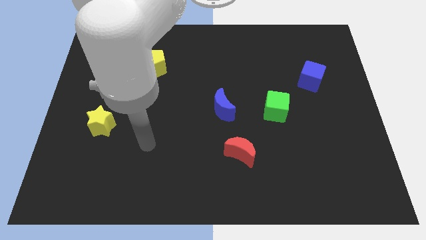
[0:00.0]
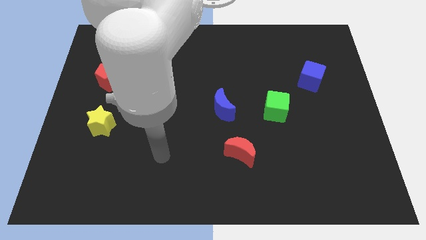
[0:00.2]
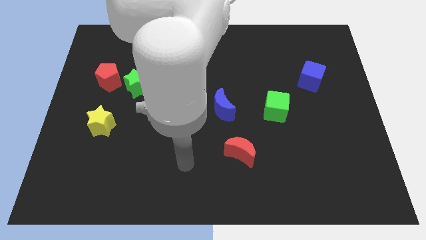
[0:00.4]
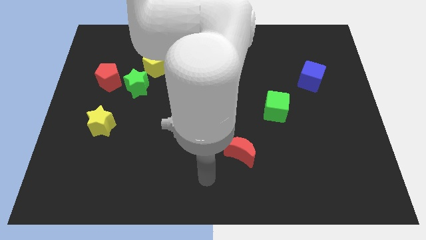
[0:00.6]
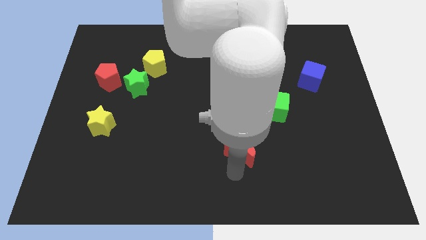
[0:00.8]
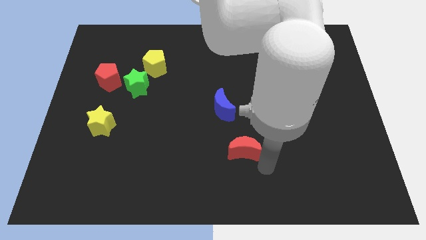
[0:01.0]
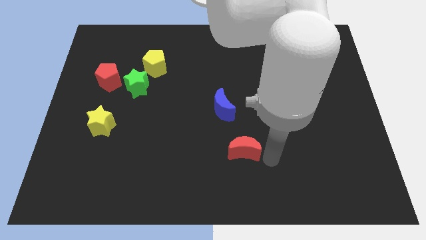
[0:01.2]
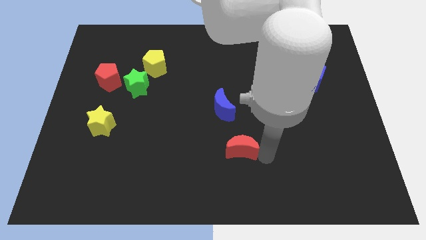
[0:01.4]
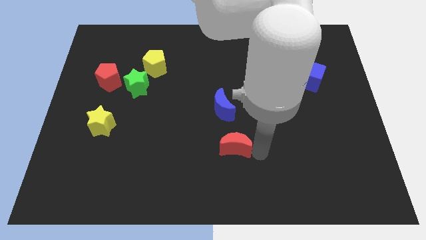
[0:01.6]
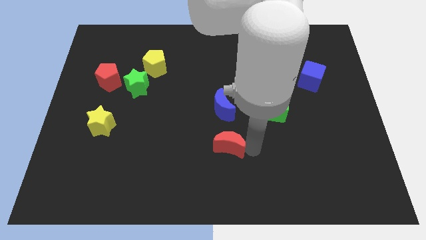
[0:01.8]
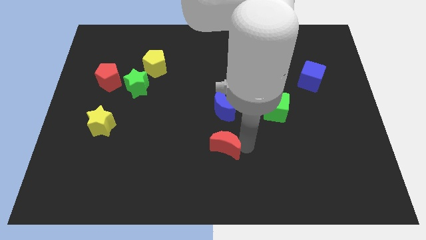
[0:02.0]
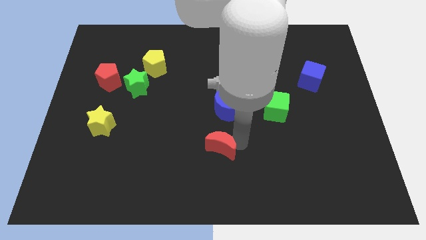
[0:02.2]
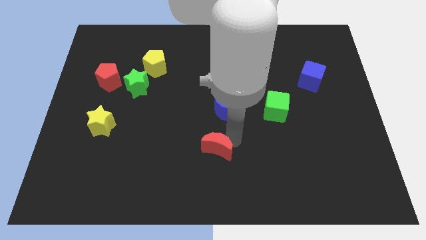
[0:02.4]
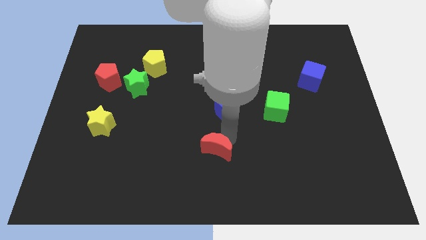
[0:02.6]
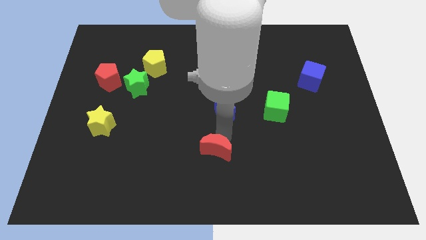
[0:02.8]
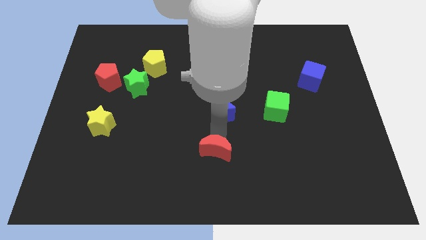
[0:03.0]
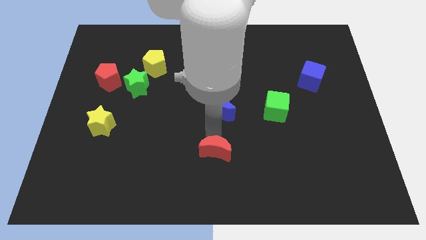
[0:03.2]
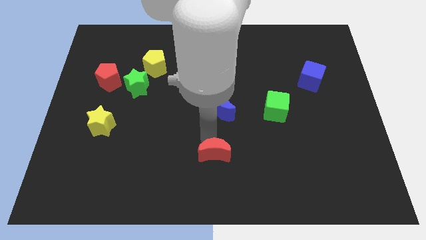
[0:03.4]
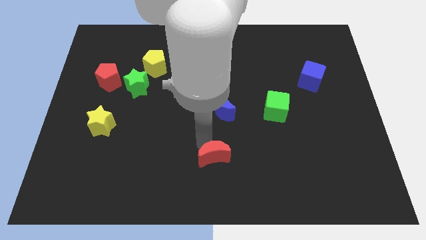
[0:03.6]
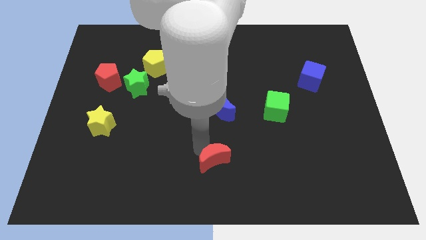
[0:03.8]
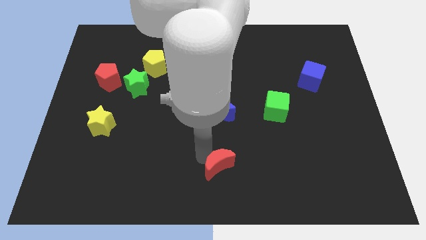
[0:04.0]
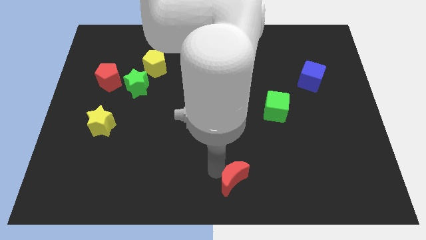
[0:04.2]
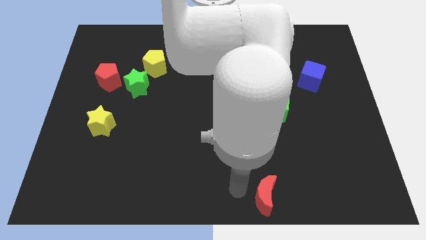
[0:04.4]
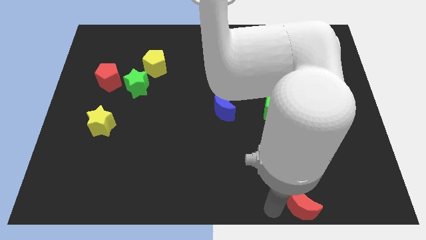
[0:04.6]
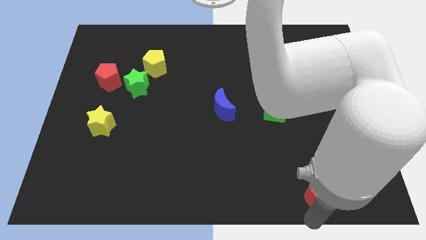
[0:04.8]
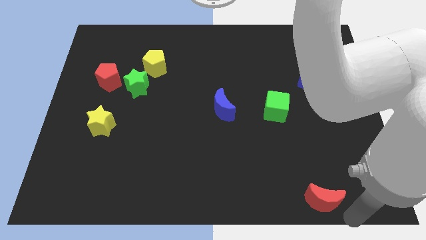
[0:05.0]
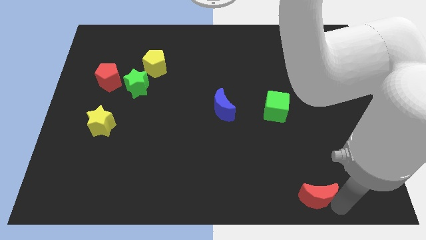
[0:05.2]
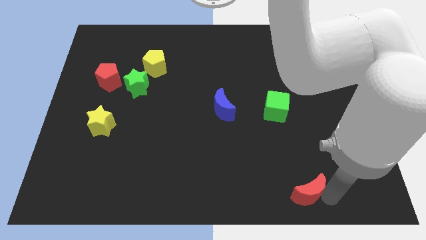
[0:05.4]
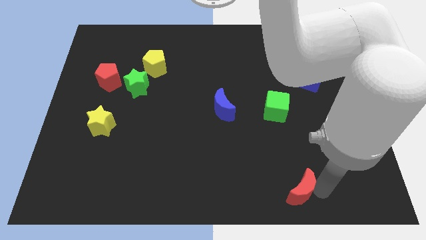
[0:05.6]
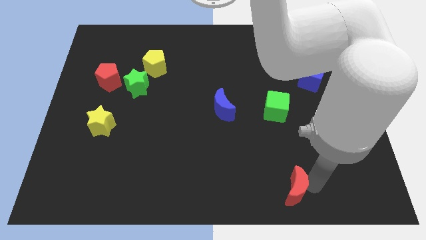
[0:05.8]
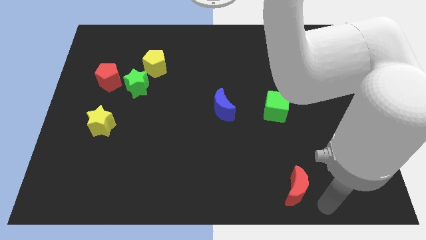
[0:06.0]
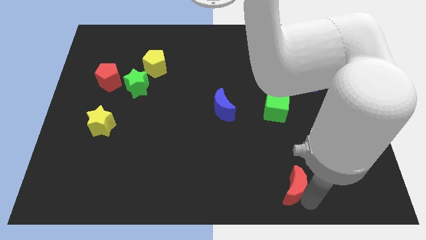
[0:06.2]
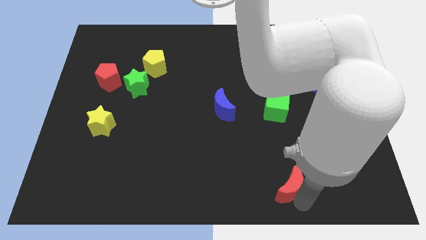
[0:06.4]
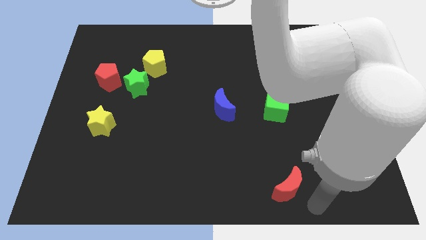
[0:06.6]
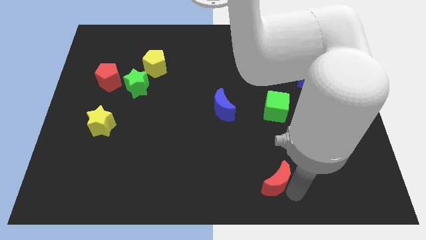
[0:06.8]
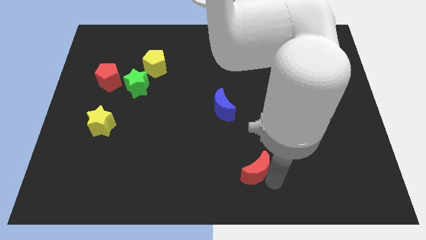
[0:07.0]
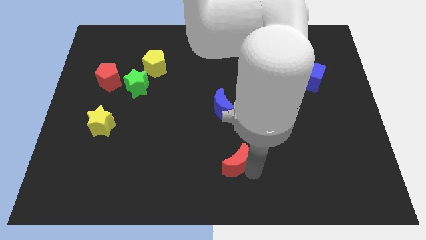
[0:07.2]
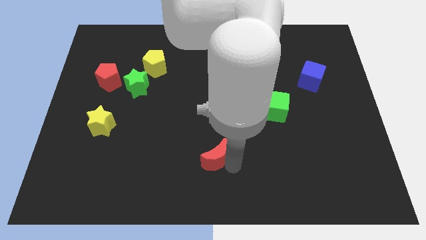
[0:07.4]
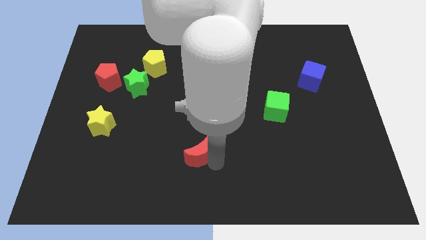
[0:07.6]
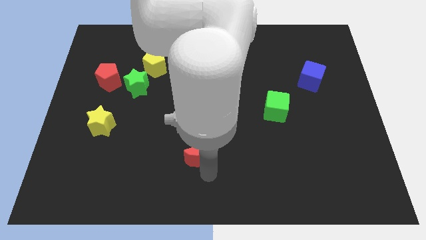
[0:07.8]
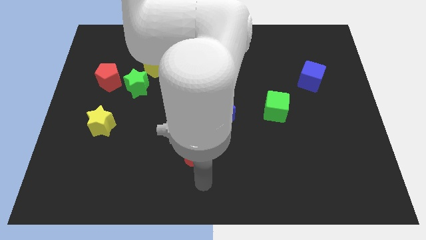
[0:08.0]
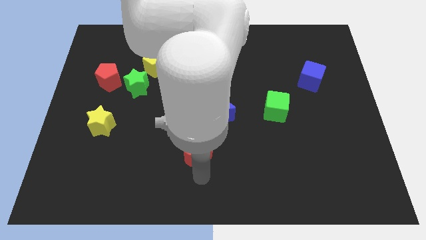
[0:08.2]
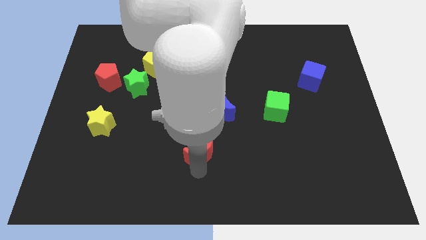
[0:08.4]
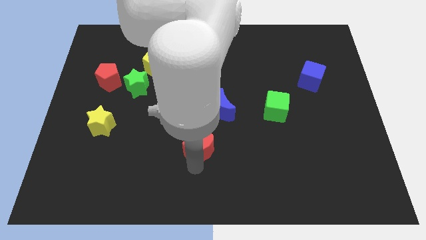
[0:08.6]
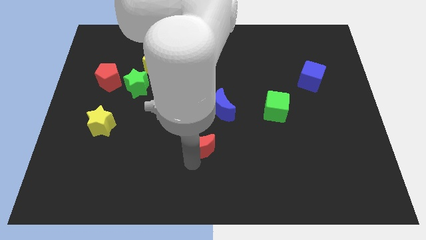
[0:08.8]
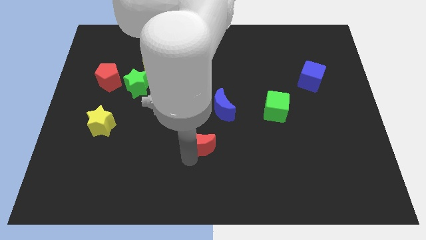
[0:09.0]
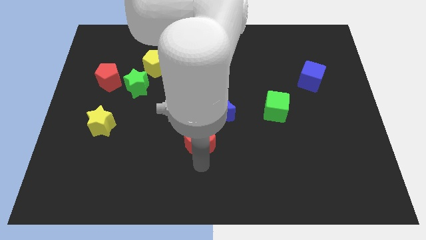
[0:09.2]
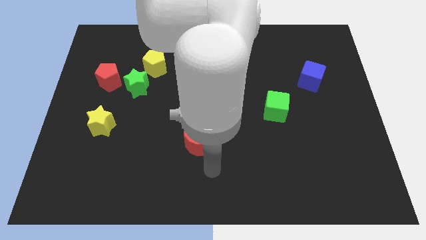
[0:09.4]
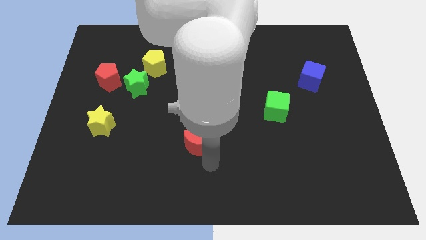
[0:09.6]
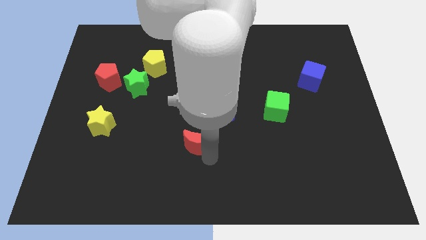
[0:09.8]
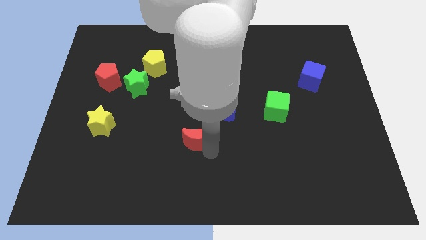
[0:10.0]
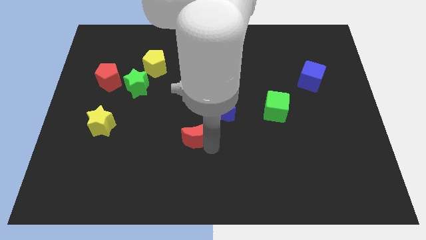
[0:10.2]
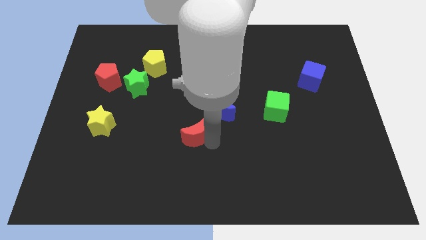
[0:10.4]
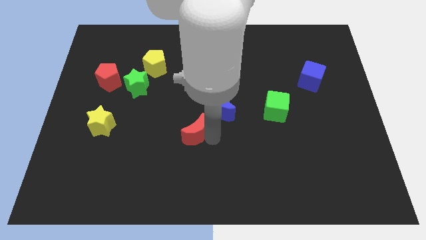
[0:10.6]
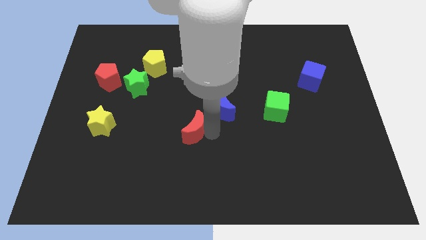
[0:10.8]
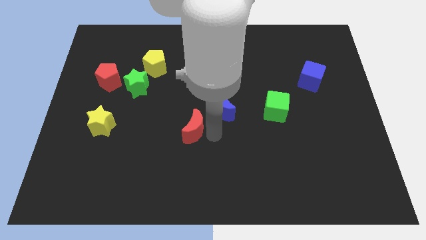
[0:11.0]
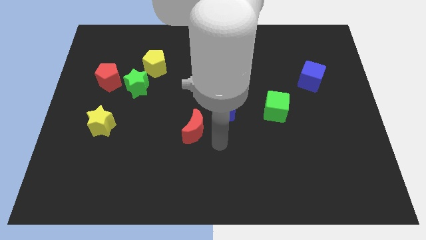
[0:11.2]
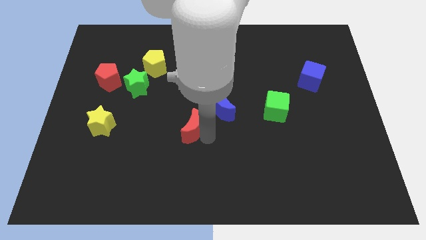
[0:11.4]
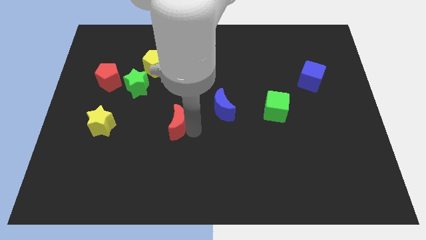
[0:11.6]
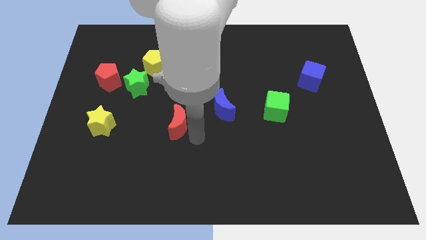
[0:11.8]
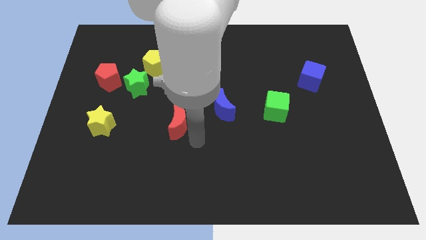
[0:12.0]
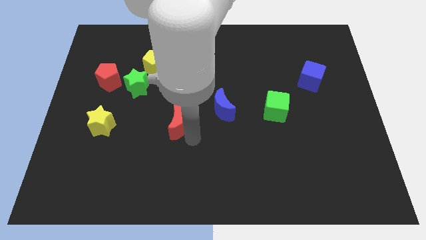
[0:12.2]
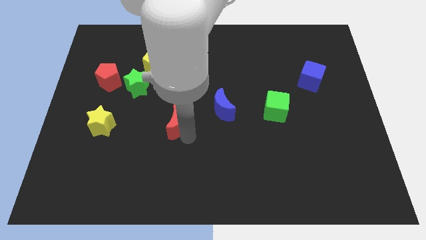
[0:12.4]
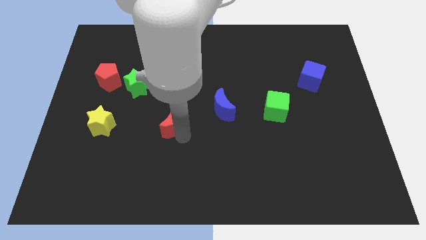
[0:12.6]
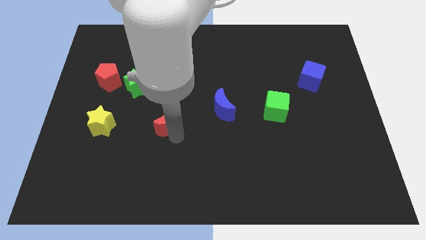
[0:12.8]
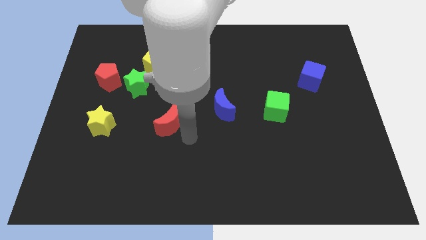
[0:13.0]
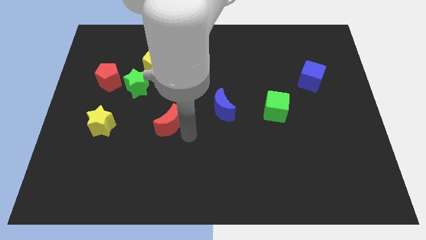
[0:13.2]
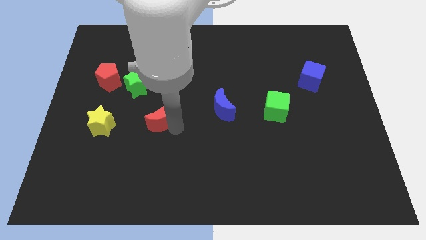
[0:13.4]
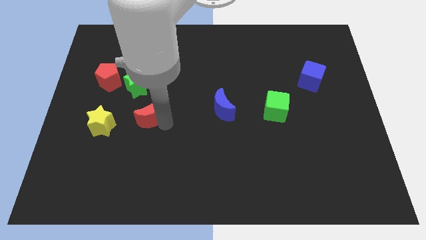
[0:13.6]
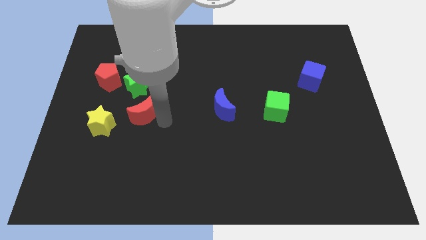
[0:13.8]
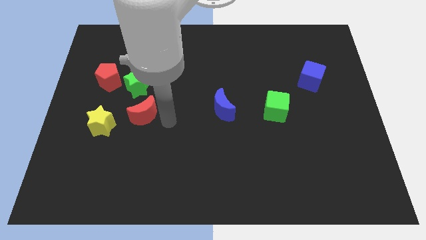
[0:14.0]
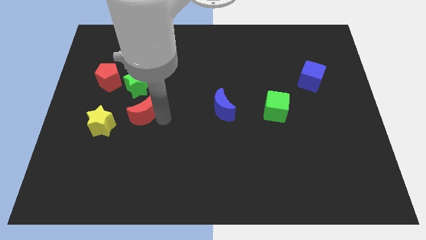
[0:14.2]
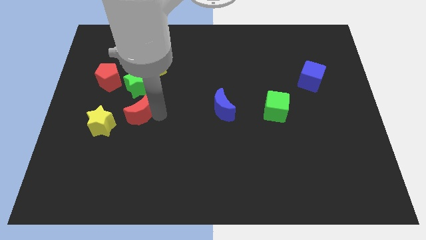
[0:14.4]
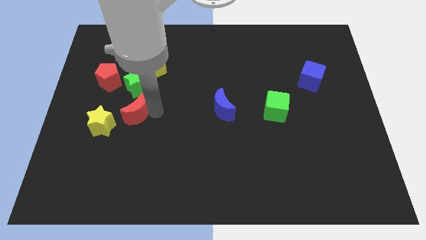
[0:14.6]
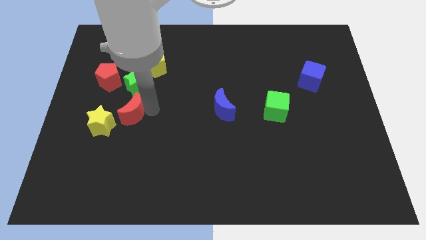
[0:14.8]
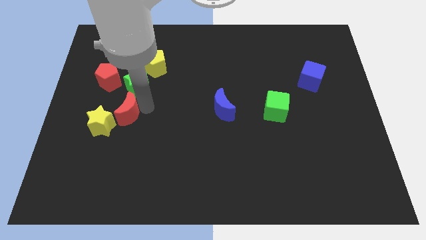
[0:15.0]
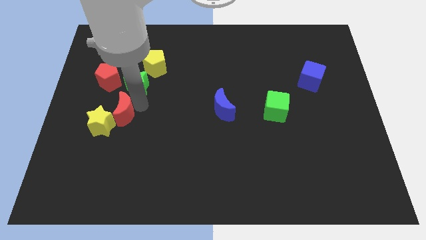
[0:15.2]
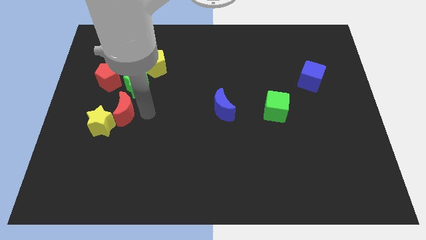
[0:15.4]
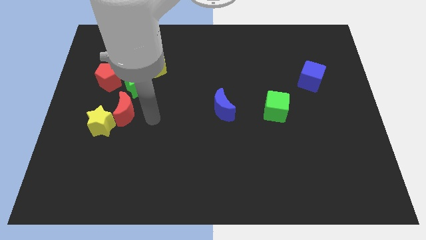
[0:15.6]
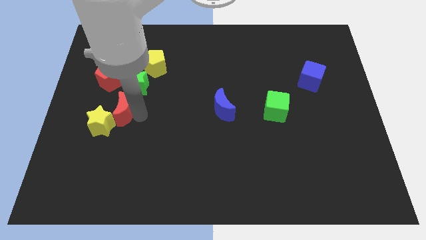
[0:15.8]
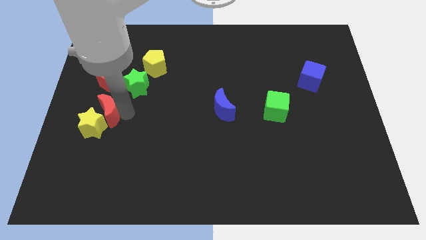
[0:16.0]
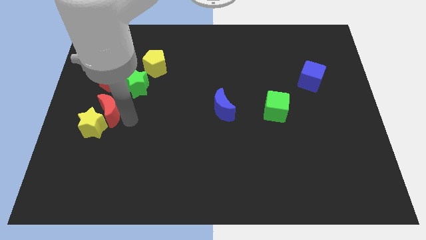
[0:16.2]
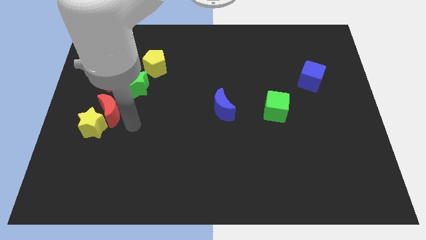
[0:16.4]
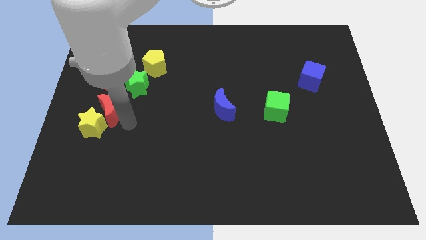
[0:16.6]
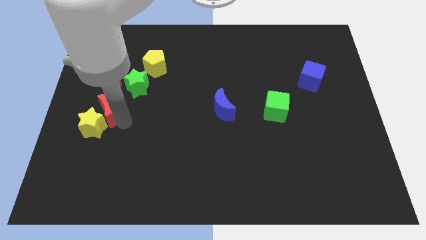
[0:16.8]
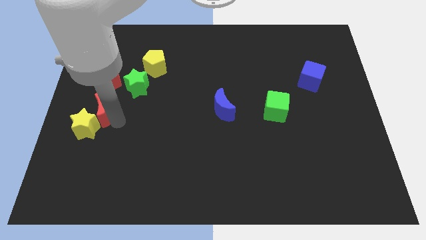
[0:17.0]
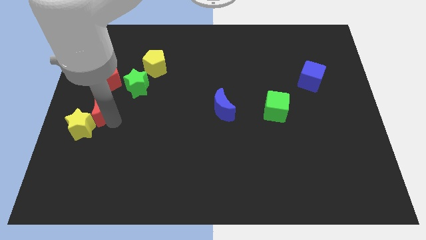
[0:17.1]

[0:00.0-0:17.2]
put the red moon to the left side of the board
